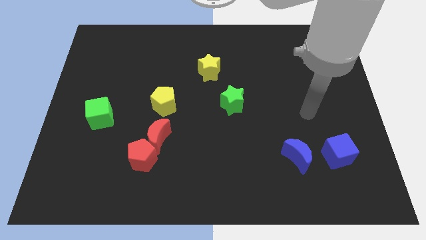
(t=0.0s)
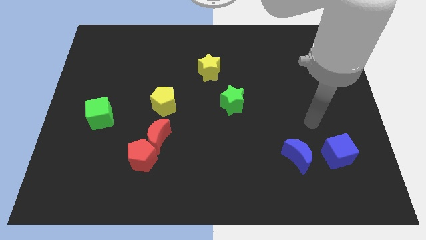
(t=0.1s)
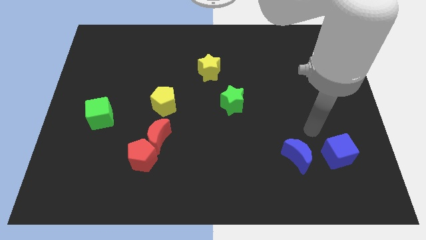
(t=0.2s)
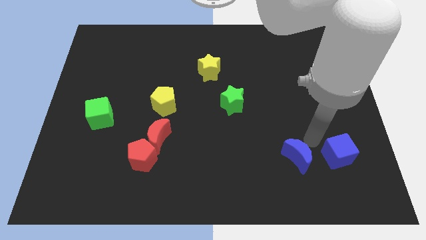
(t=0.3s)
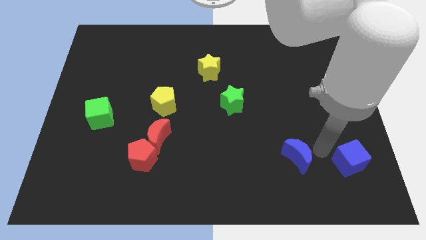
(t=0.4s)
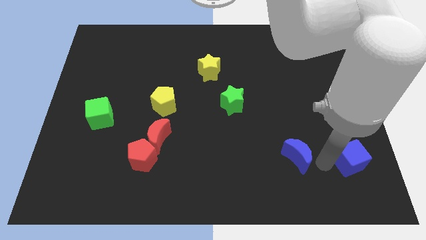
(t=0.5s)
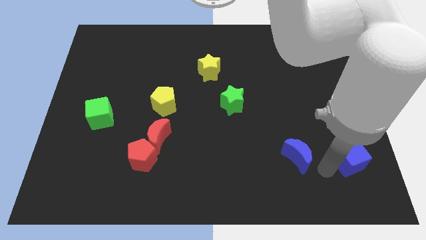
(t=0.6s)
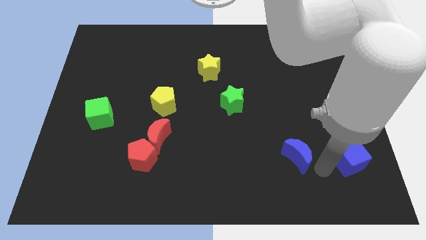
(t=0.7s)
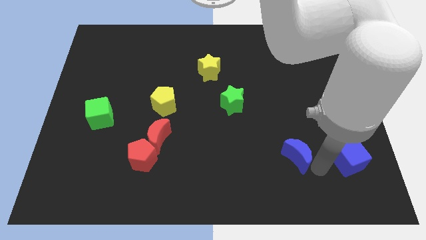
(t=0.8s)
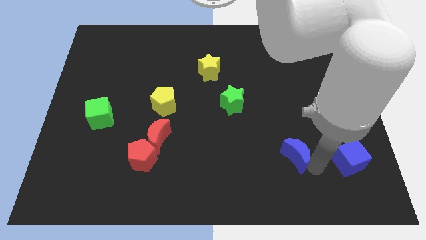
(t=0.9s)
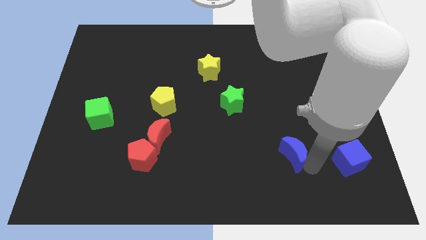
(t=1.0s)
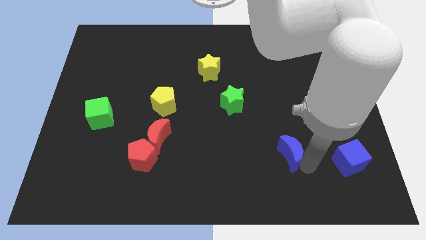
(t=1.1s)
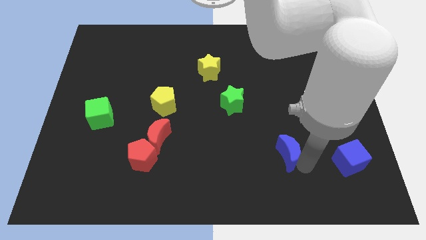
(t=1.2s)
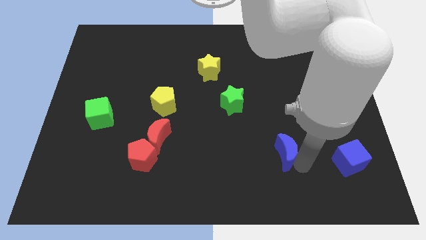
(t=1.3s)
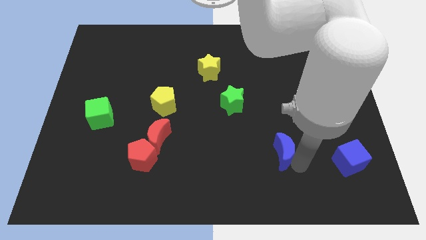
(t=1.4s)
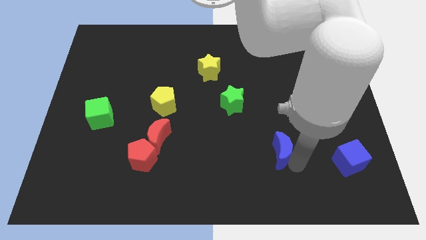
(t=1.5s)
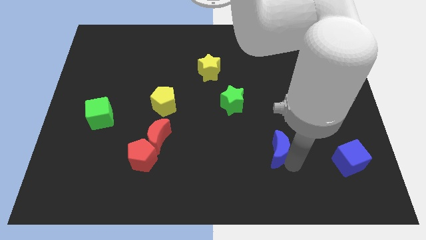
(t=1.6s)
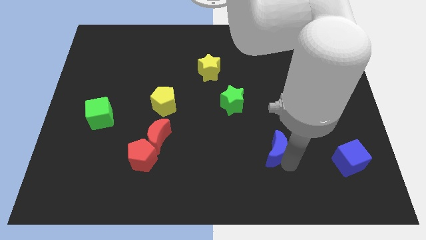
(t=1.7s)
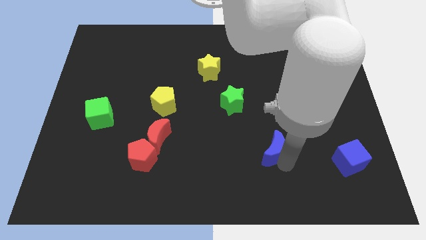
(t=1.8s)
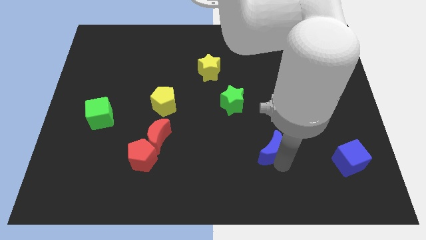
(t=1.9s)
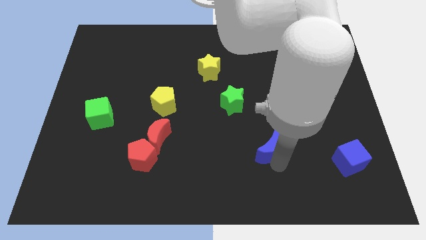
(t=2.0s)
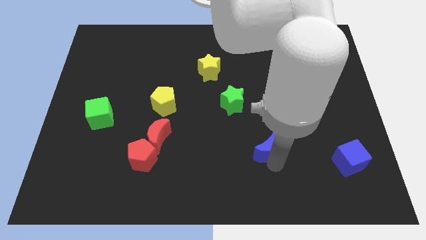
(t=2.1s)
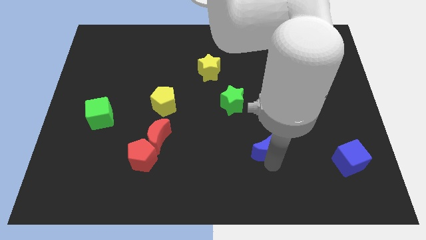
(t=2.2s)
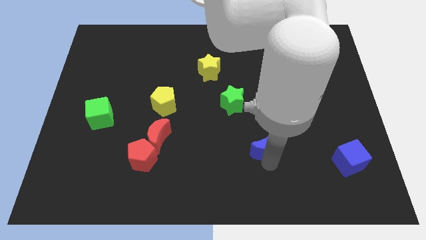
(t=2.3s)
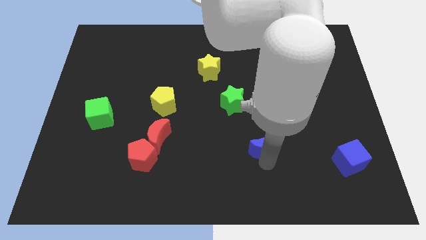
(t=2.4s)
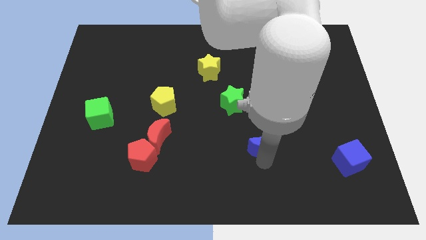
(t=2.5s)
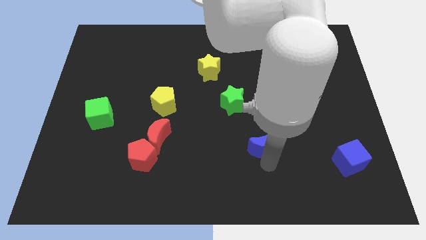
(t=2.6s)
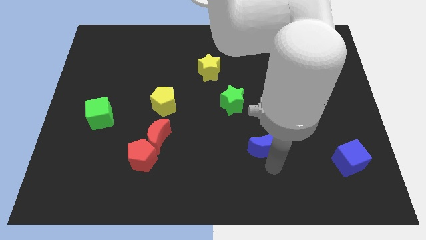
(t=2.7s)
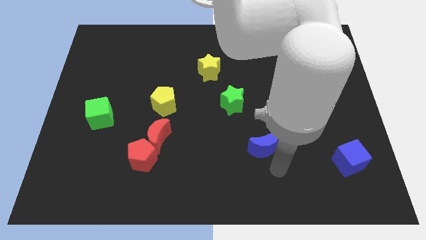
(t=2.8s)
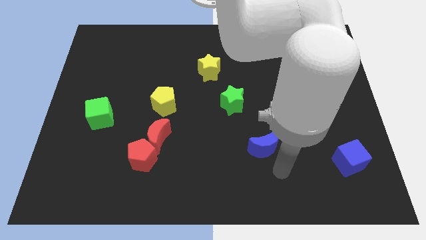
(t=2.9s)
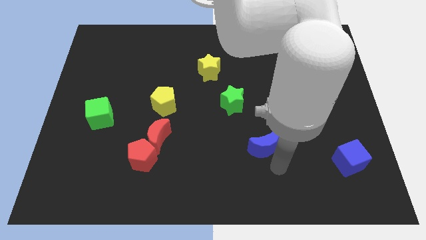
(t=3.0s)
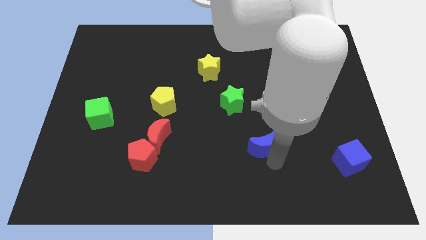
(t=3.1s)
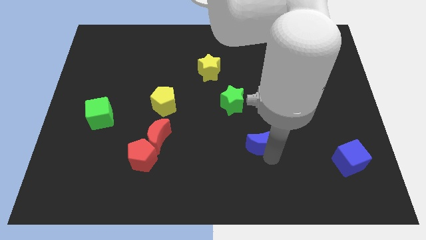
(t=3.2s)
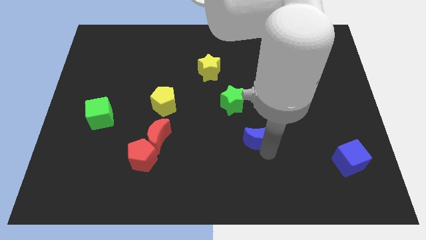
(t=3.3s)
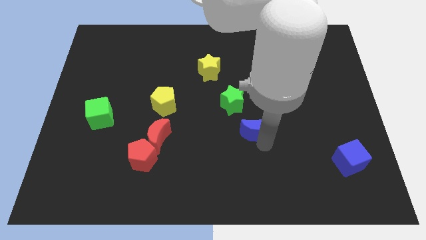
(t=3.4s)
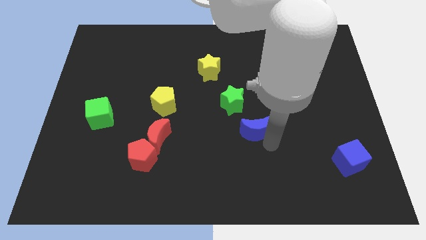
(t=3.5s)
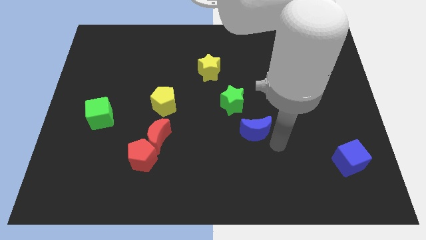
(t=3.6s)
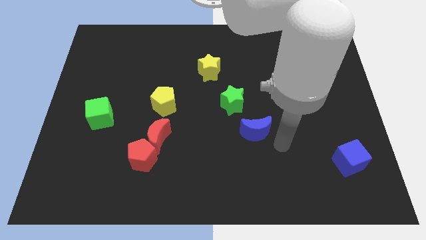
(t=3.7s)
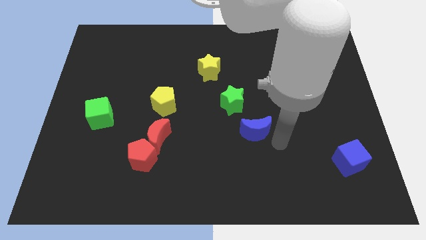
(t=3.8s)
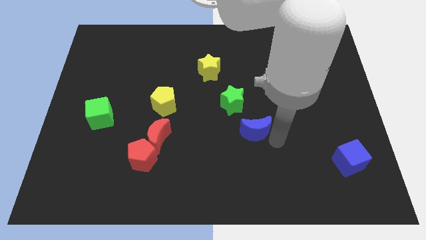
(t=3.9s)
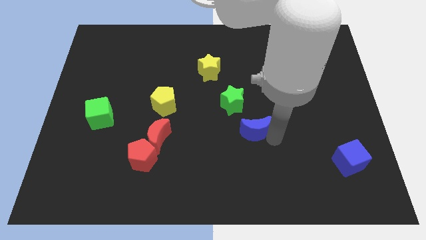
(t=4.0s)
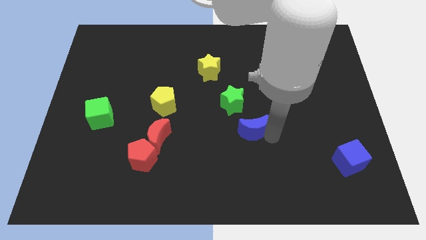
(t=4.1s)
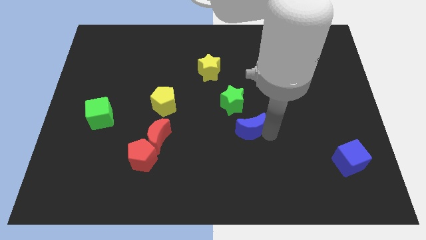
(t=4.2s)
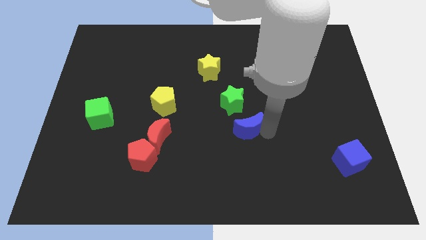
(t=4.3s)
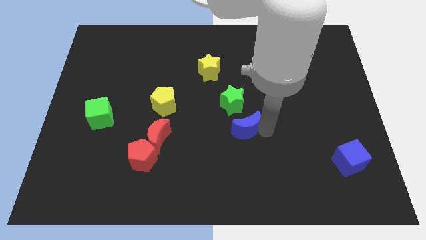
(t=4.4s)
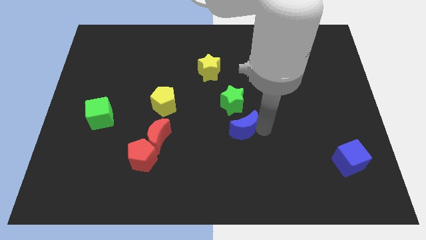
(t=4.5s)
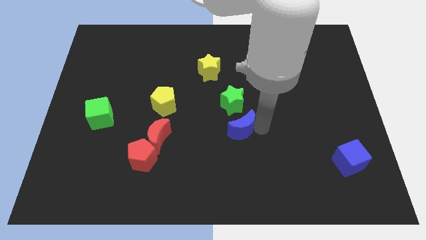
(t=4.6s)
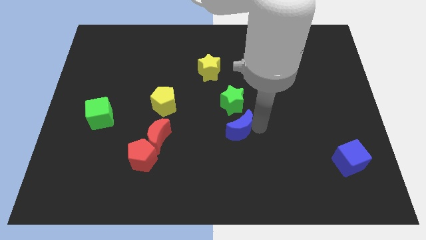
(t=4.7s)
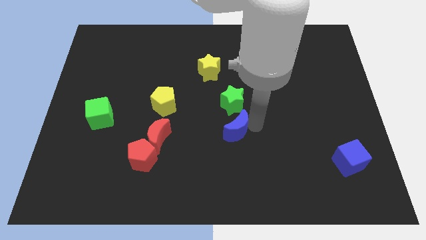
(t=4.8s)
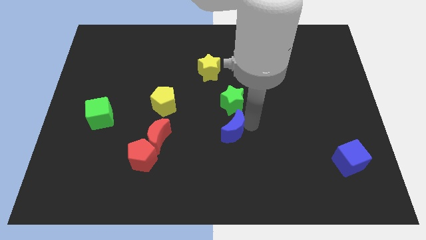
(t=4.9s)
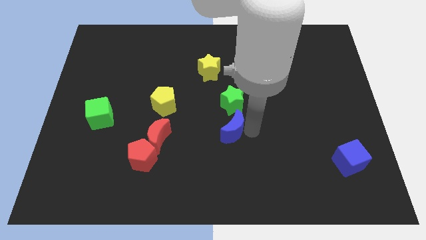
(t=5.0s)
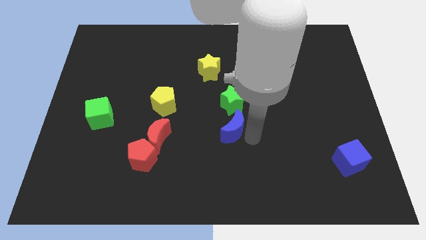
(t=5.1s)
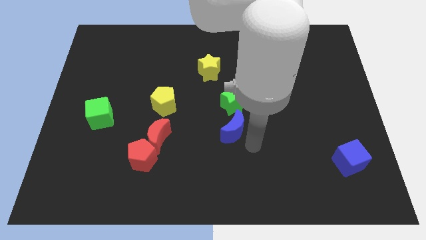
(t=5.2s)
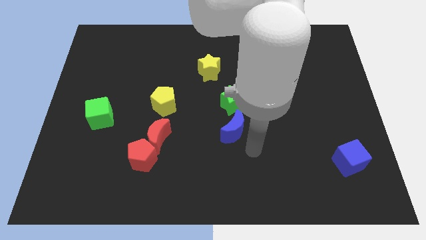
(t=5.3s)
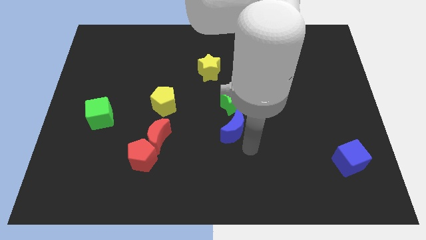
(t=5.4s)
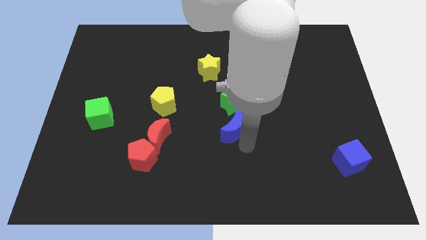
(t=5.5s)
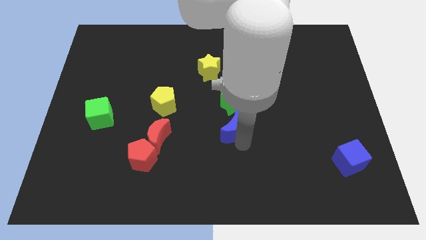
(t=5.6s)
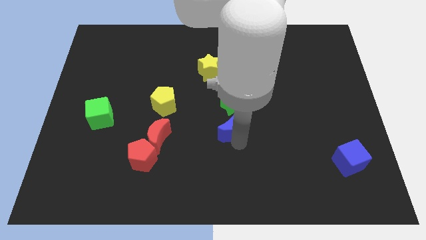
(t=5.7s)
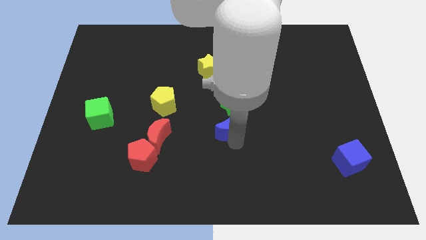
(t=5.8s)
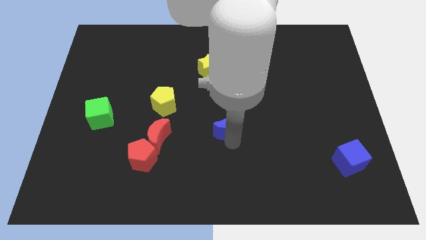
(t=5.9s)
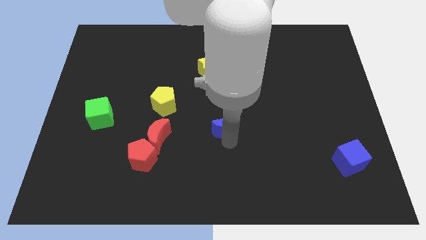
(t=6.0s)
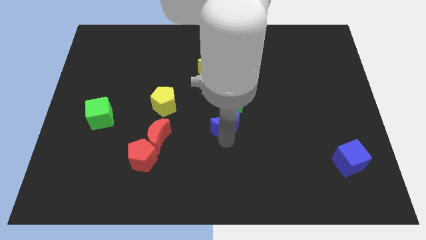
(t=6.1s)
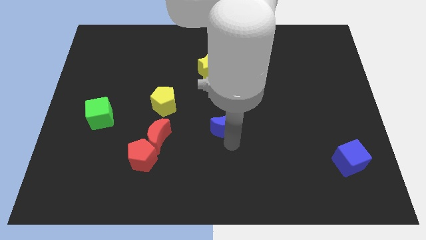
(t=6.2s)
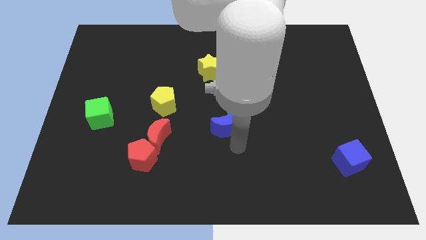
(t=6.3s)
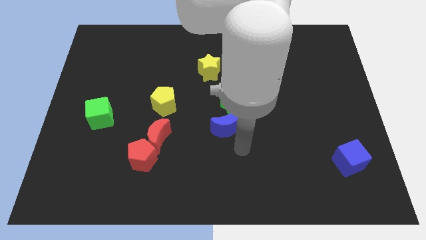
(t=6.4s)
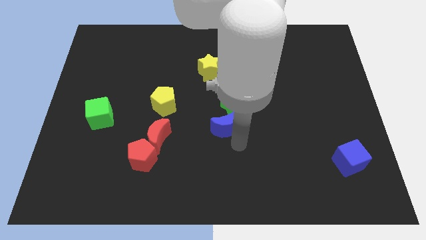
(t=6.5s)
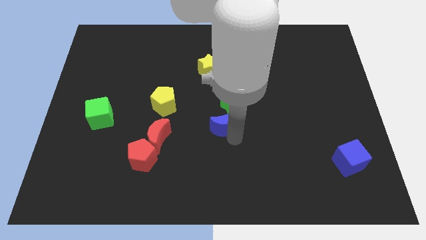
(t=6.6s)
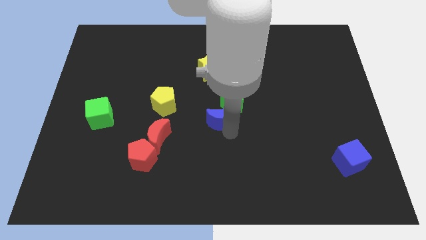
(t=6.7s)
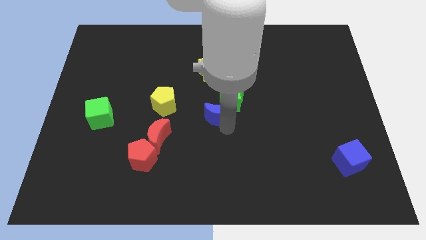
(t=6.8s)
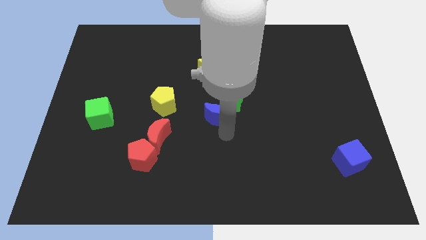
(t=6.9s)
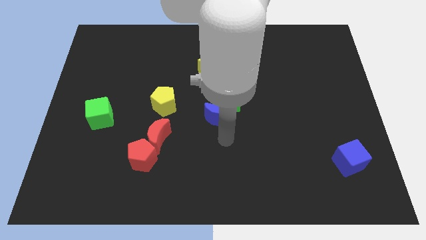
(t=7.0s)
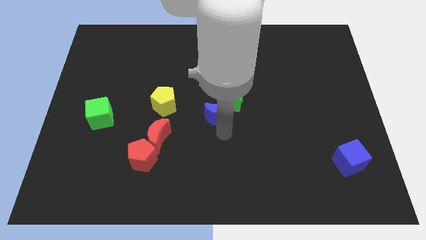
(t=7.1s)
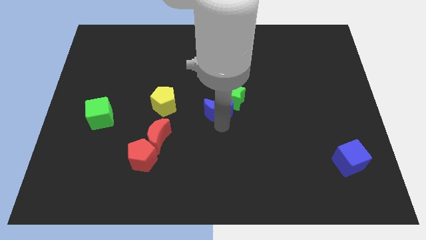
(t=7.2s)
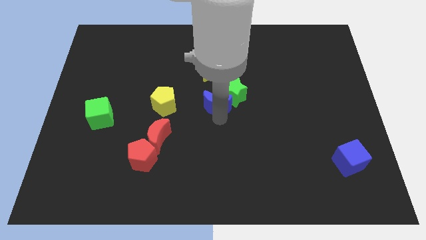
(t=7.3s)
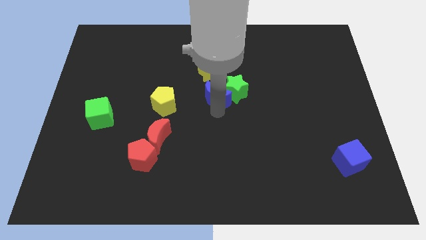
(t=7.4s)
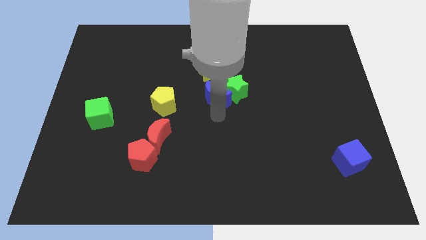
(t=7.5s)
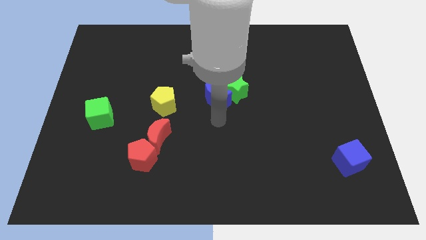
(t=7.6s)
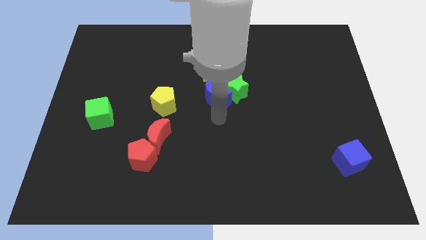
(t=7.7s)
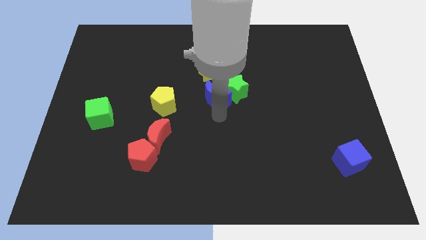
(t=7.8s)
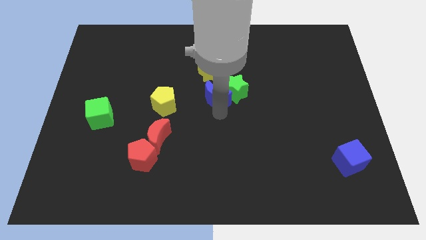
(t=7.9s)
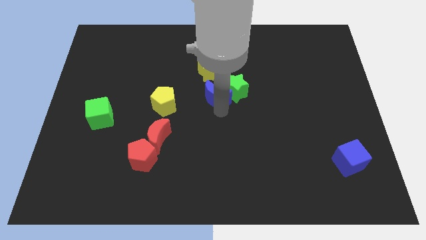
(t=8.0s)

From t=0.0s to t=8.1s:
put the blue moon diagonally up and to the left of the green star
